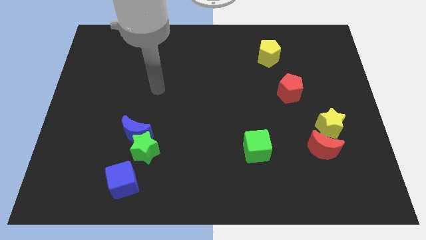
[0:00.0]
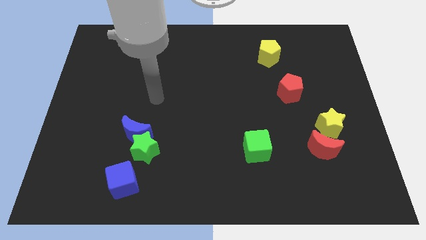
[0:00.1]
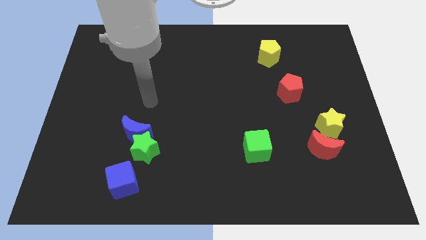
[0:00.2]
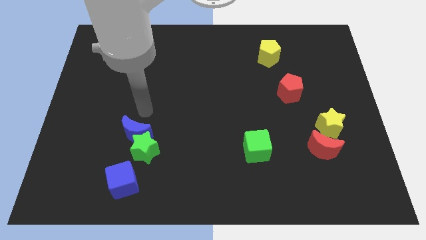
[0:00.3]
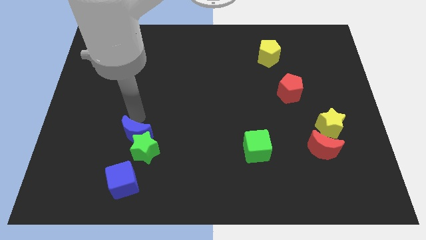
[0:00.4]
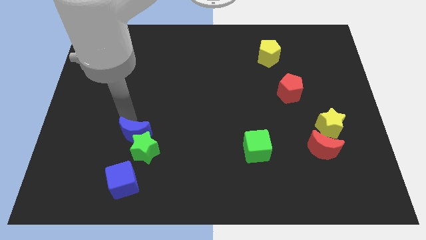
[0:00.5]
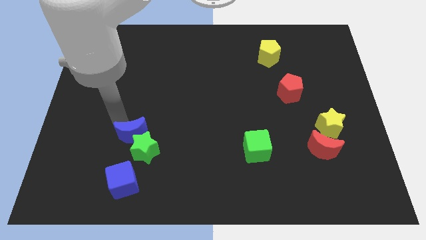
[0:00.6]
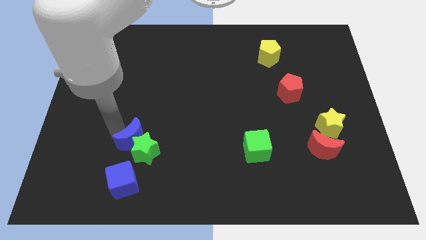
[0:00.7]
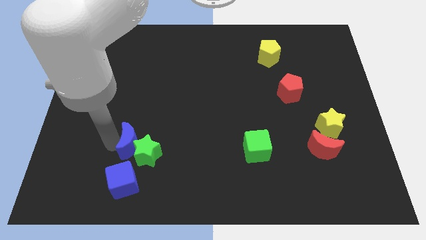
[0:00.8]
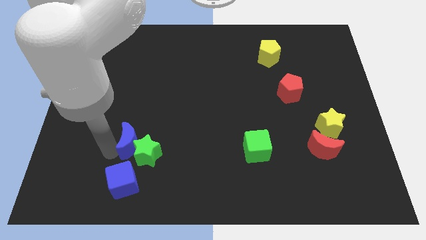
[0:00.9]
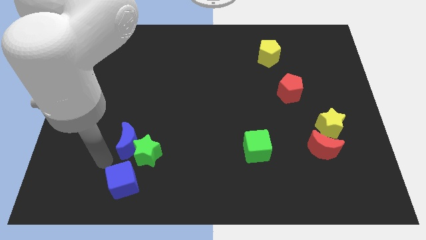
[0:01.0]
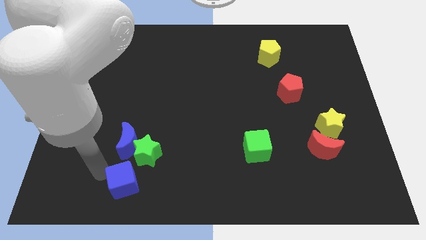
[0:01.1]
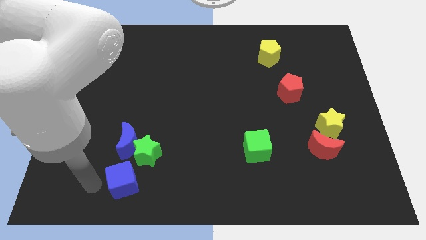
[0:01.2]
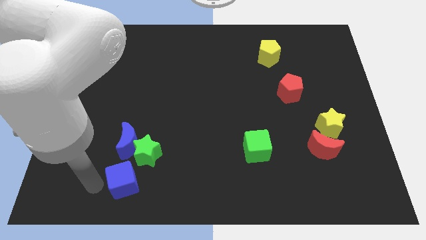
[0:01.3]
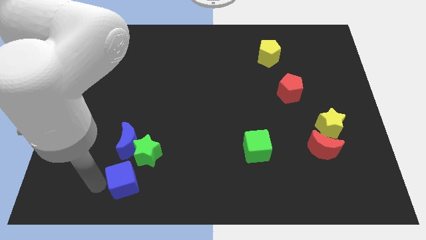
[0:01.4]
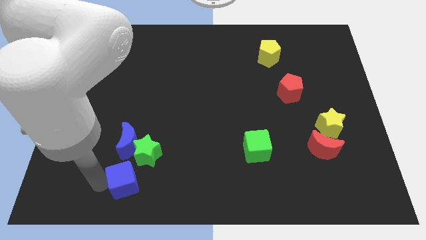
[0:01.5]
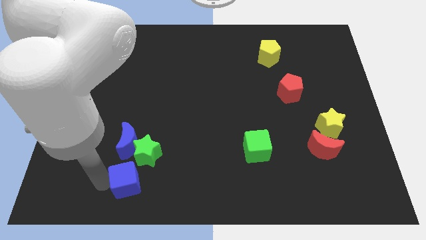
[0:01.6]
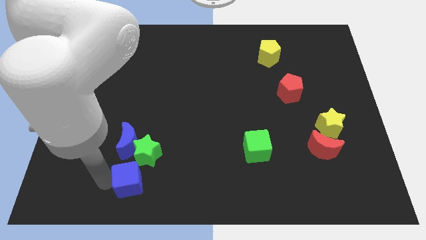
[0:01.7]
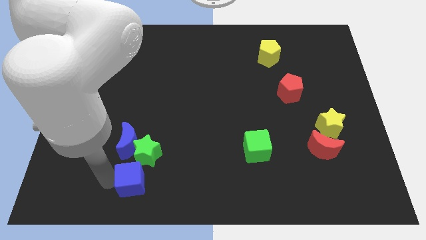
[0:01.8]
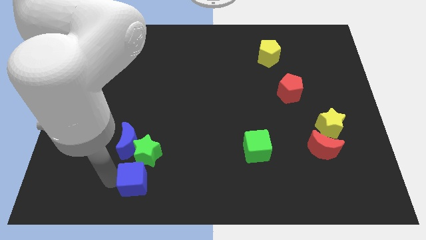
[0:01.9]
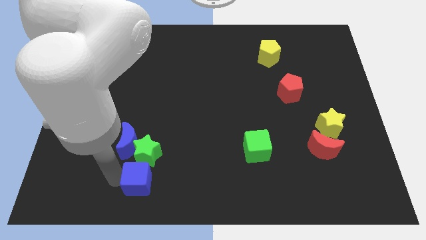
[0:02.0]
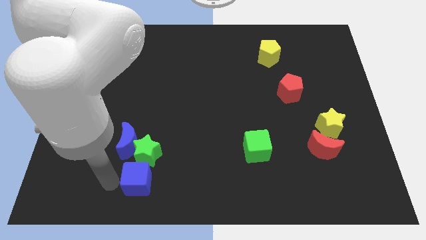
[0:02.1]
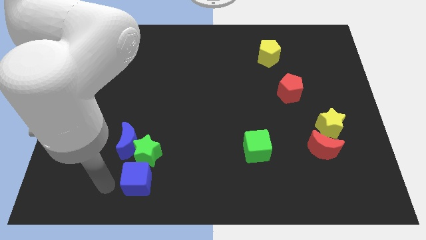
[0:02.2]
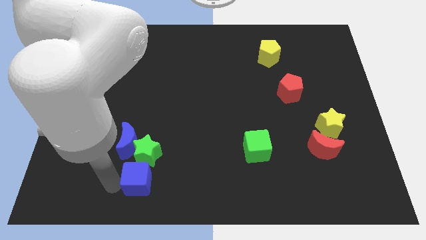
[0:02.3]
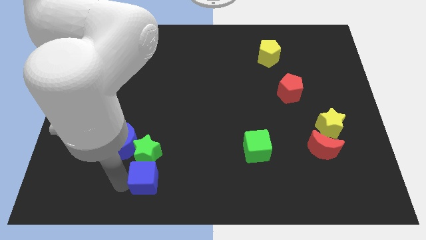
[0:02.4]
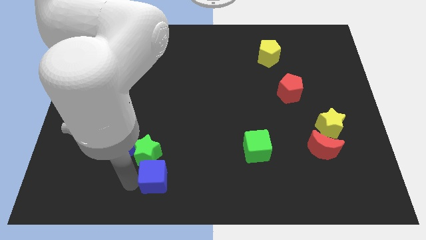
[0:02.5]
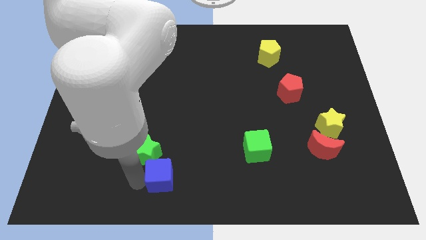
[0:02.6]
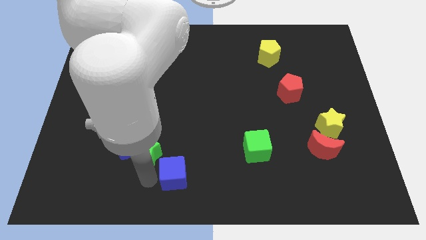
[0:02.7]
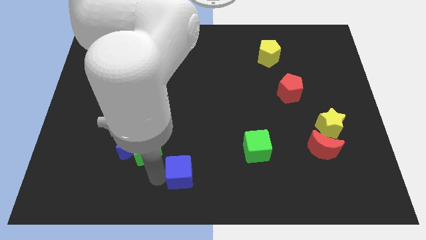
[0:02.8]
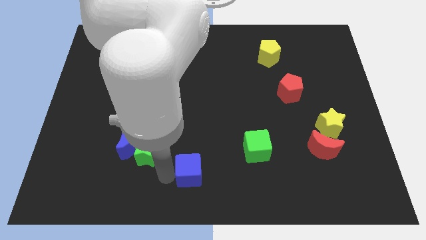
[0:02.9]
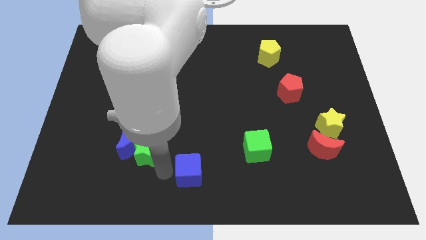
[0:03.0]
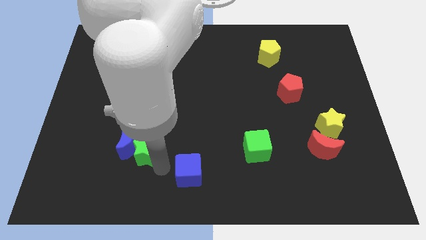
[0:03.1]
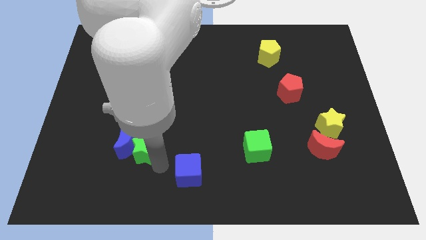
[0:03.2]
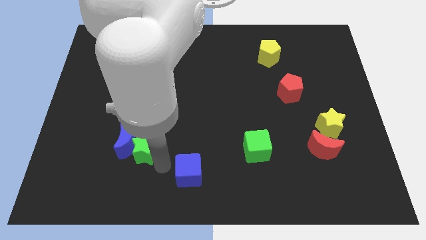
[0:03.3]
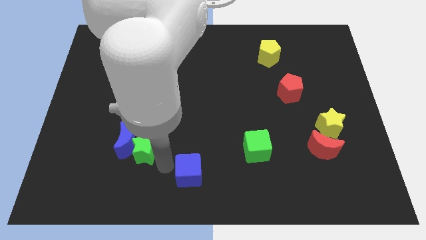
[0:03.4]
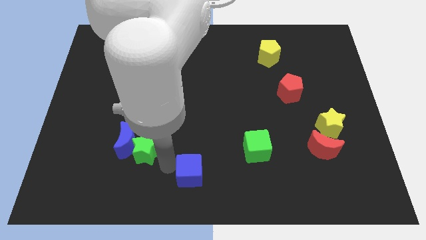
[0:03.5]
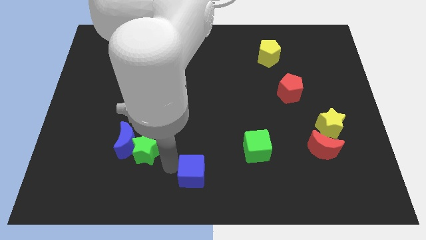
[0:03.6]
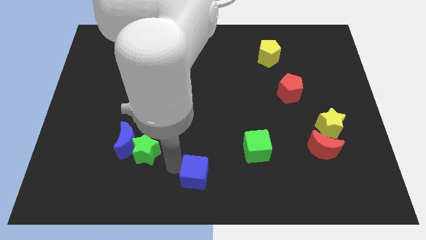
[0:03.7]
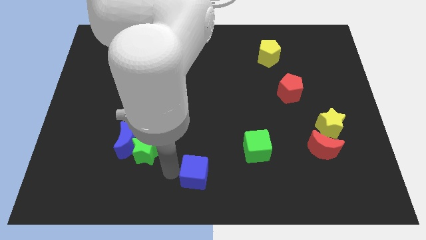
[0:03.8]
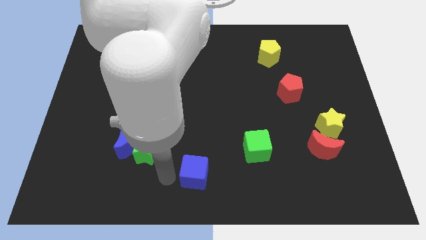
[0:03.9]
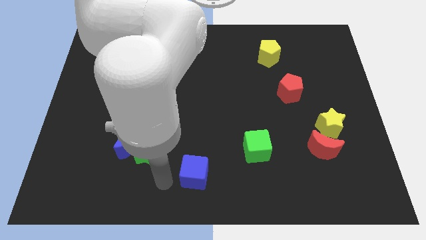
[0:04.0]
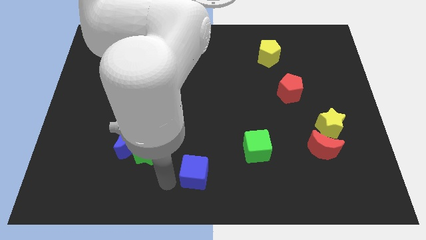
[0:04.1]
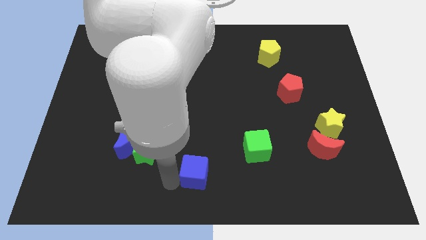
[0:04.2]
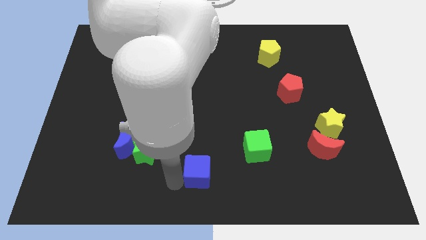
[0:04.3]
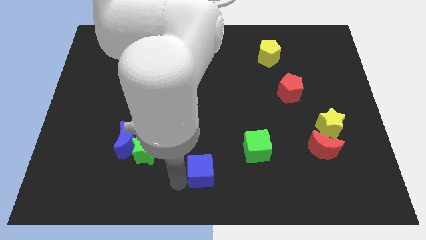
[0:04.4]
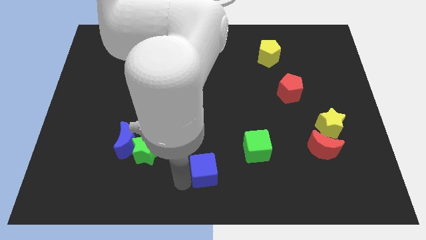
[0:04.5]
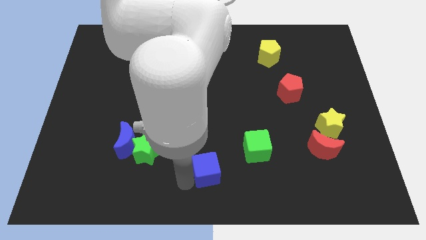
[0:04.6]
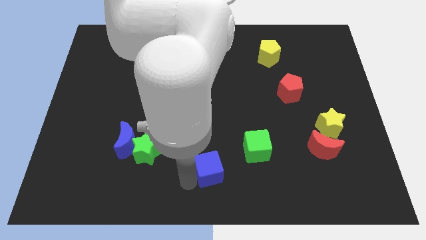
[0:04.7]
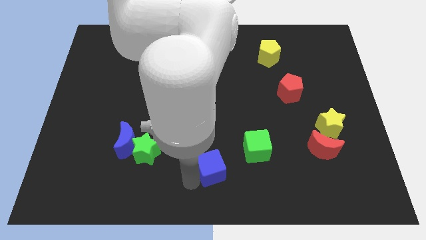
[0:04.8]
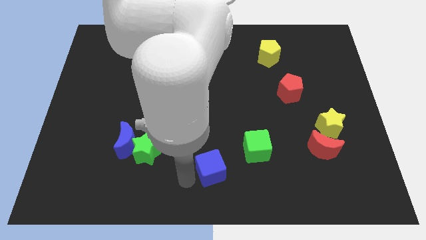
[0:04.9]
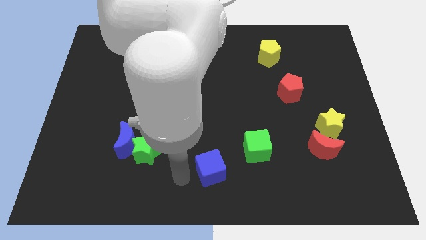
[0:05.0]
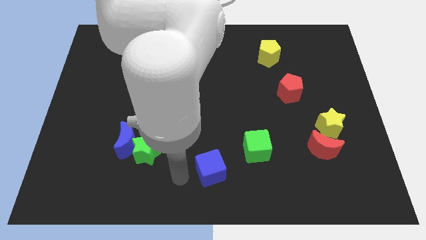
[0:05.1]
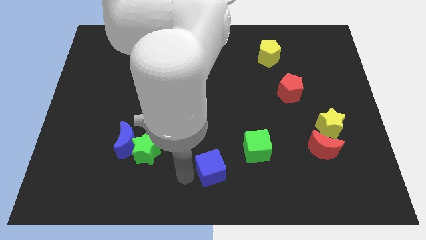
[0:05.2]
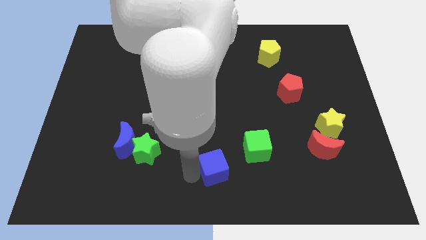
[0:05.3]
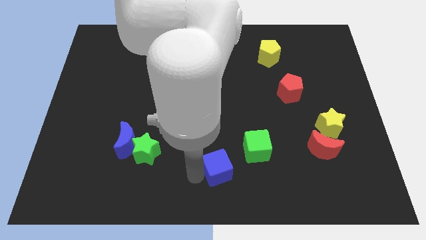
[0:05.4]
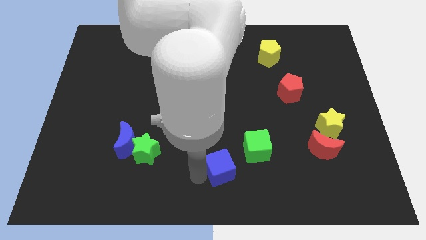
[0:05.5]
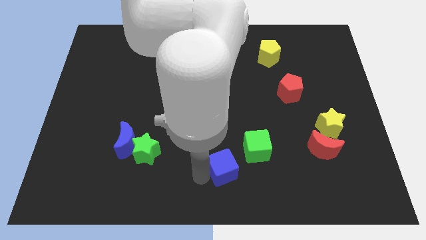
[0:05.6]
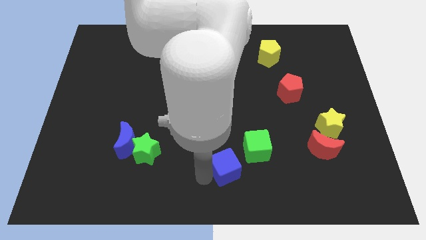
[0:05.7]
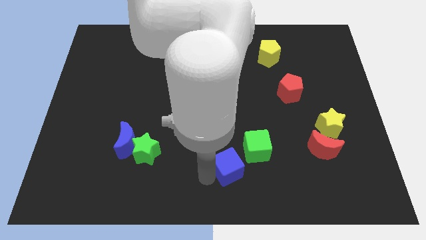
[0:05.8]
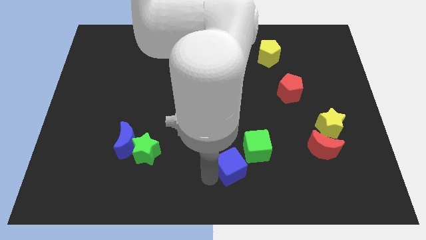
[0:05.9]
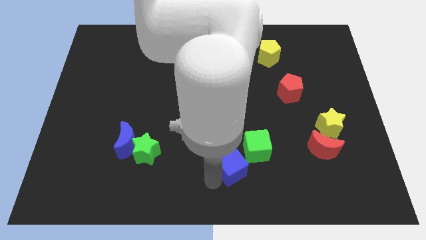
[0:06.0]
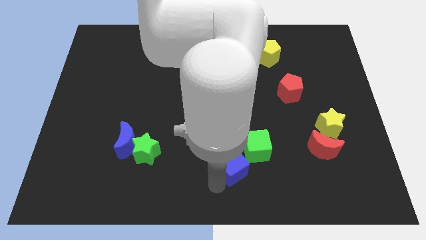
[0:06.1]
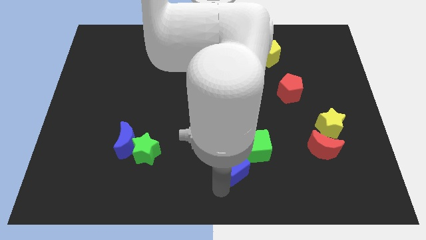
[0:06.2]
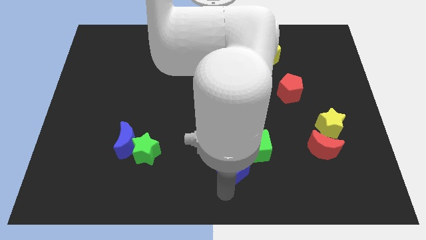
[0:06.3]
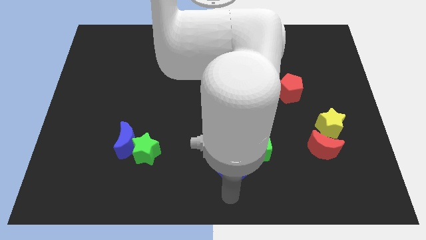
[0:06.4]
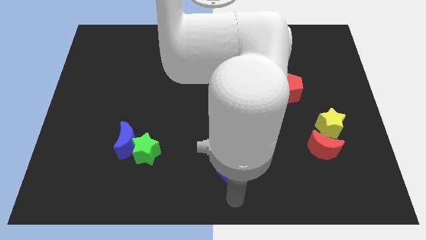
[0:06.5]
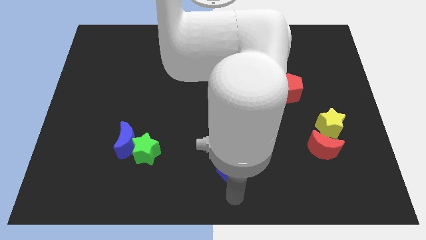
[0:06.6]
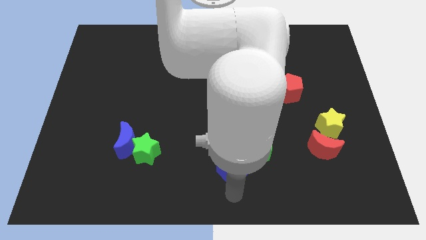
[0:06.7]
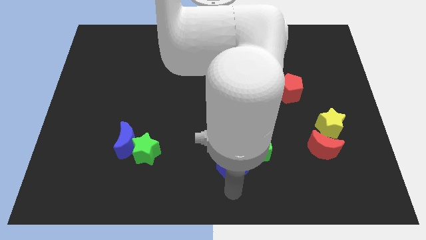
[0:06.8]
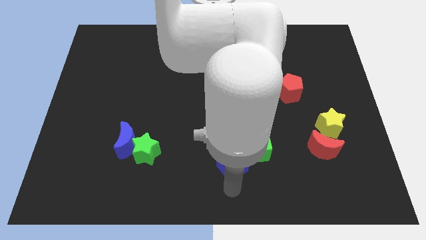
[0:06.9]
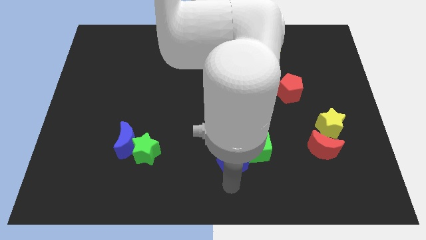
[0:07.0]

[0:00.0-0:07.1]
move the blue cube to the green cube
